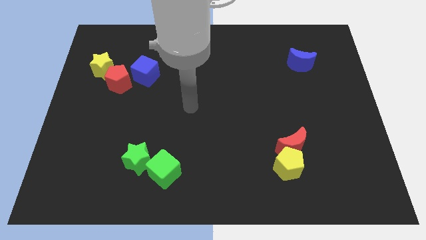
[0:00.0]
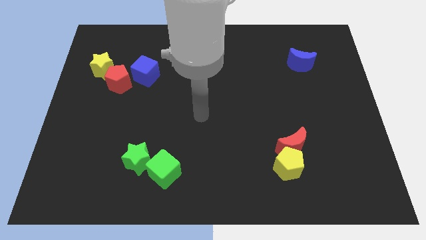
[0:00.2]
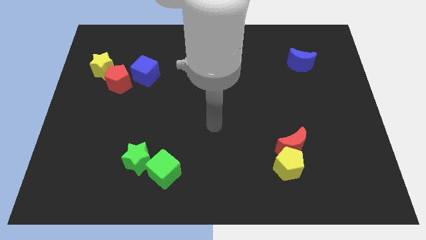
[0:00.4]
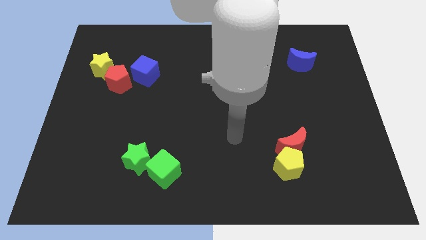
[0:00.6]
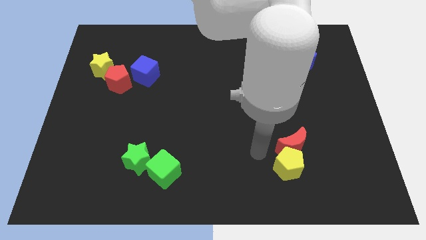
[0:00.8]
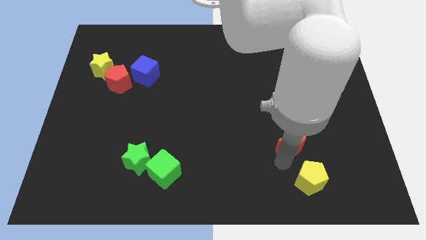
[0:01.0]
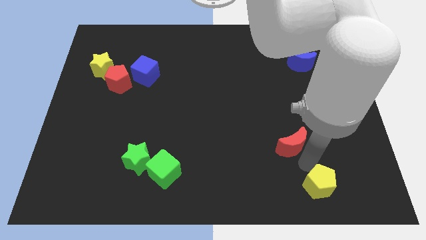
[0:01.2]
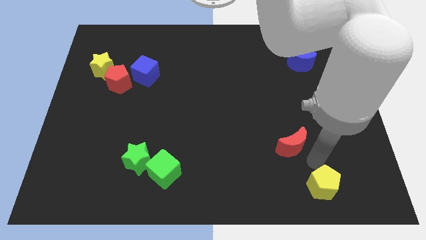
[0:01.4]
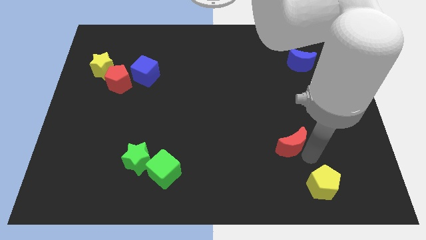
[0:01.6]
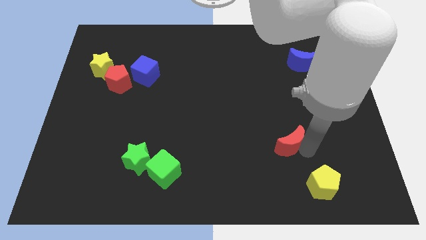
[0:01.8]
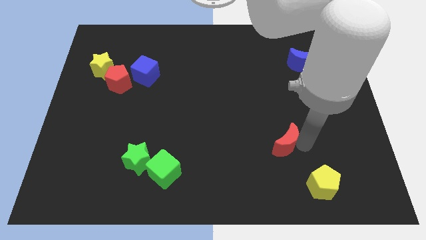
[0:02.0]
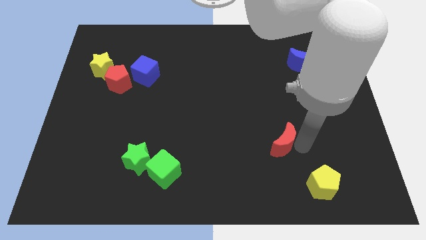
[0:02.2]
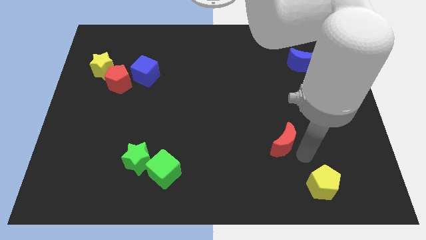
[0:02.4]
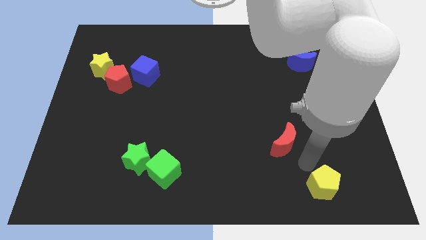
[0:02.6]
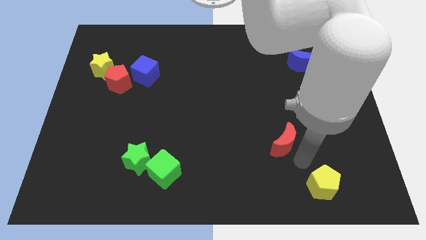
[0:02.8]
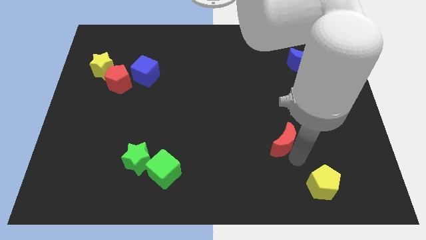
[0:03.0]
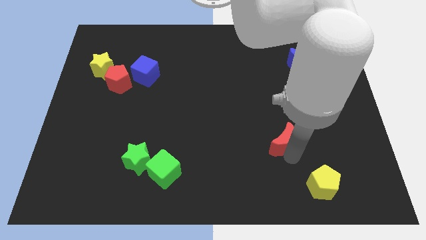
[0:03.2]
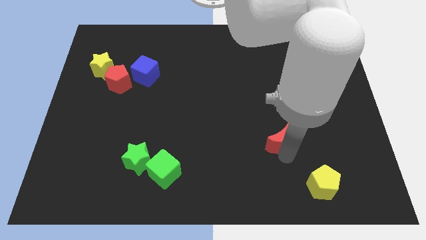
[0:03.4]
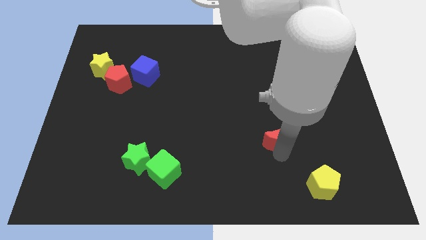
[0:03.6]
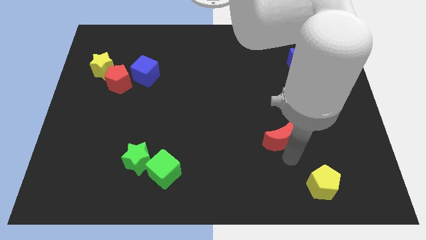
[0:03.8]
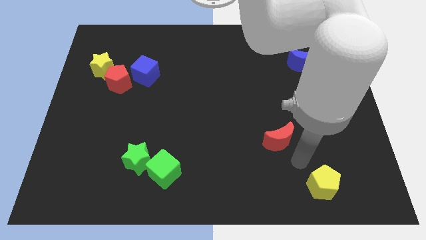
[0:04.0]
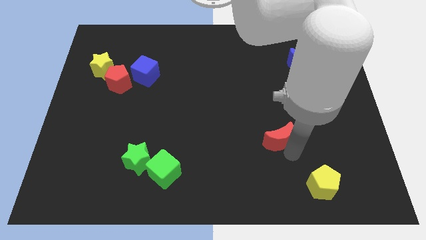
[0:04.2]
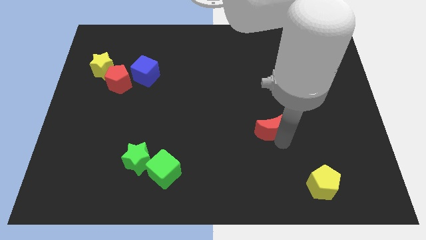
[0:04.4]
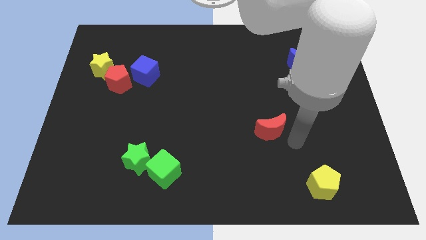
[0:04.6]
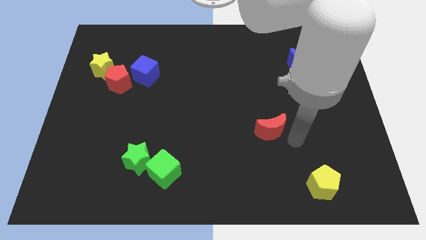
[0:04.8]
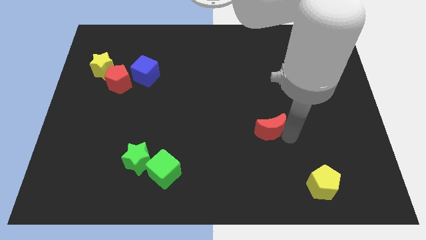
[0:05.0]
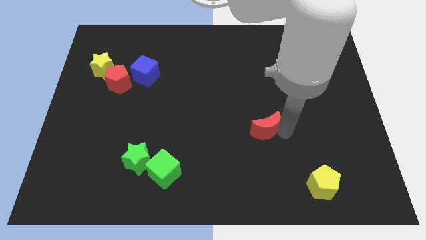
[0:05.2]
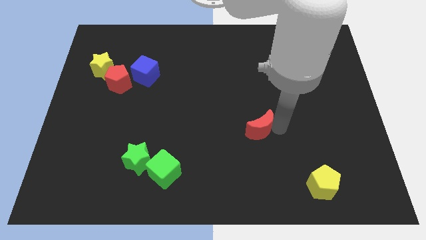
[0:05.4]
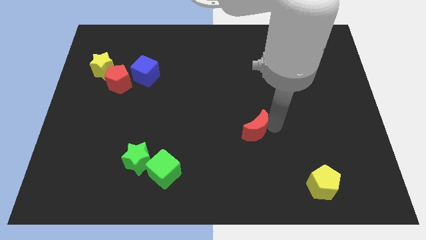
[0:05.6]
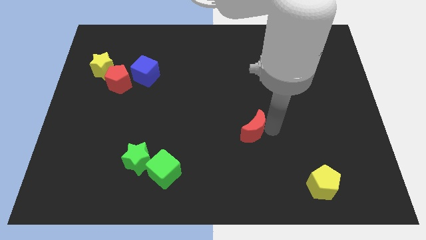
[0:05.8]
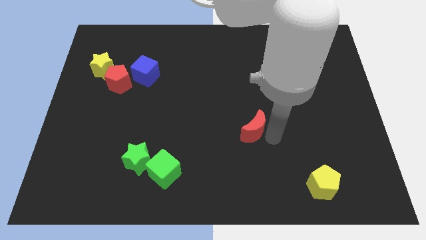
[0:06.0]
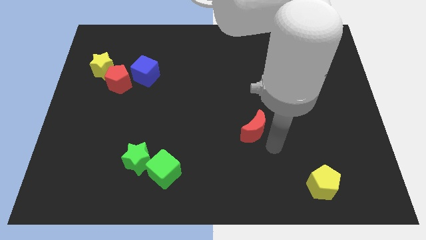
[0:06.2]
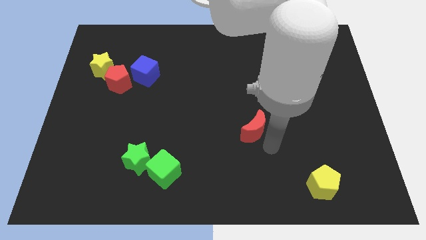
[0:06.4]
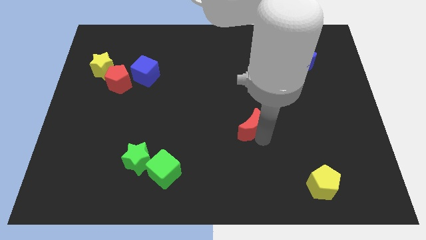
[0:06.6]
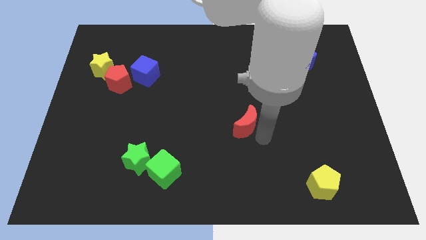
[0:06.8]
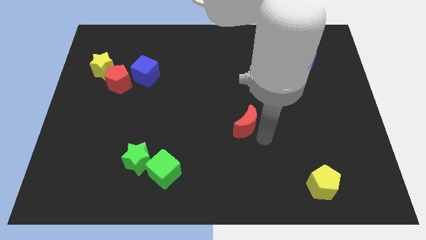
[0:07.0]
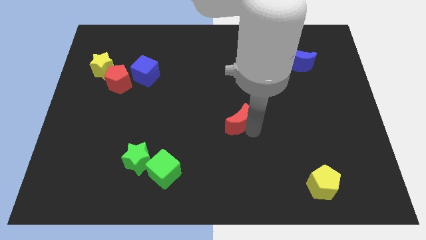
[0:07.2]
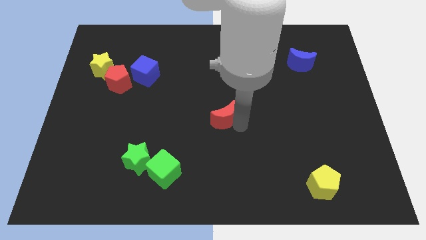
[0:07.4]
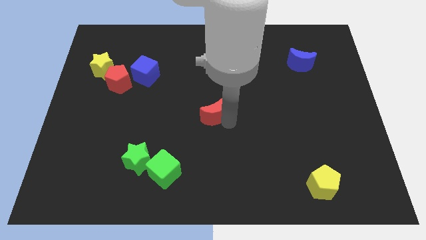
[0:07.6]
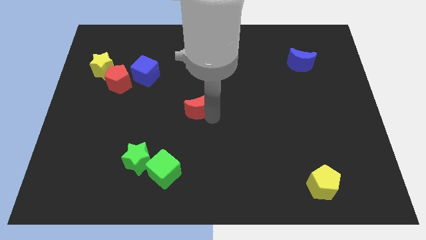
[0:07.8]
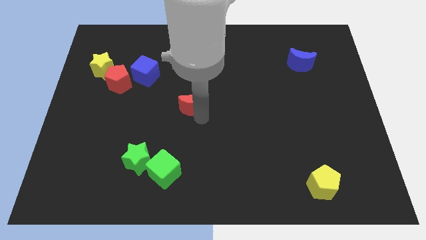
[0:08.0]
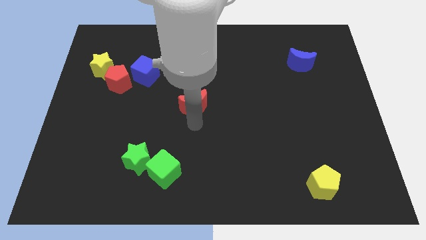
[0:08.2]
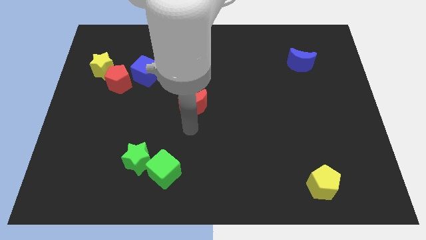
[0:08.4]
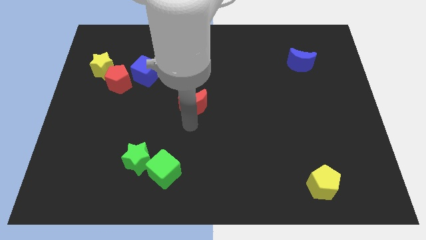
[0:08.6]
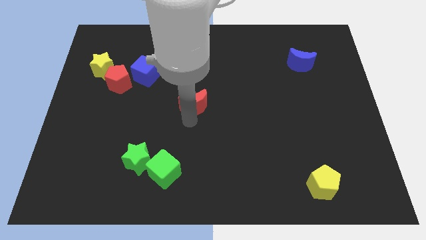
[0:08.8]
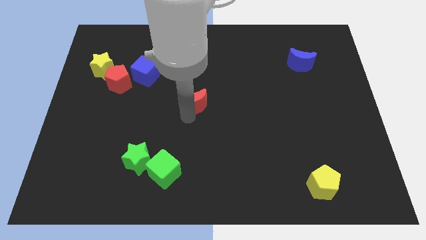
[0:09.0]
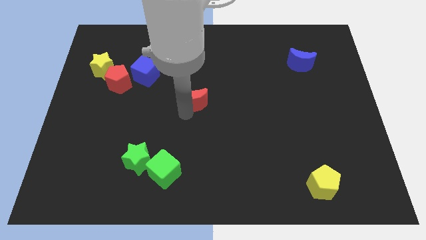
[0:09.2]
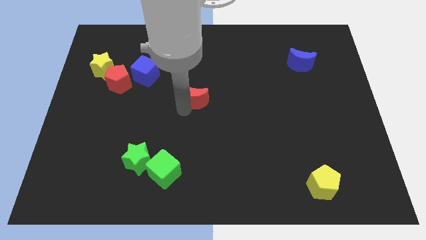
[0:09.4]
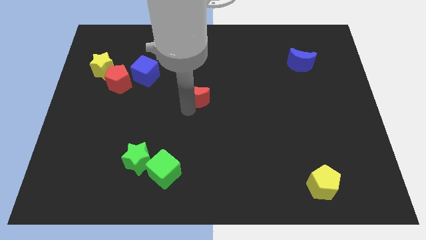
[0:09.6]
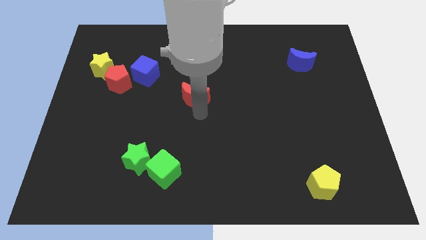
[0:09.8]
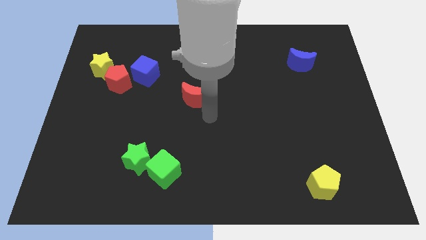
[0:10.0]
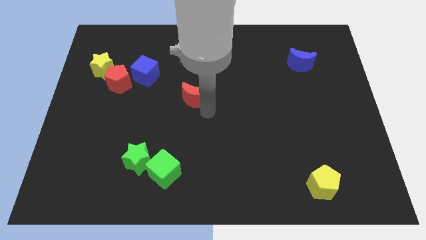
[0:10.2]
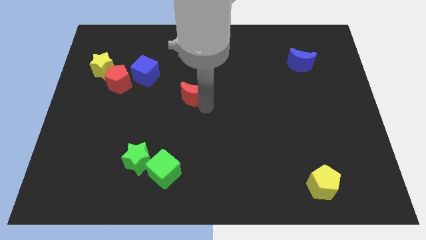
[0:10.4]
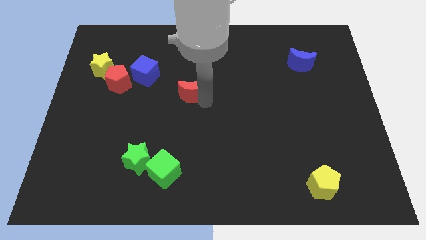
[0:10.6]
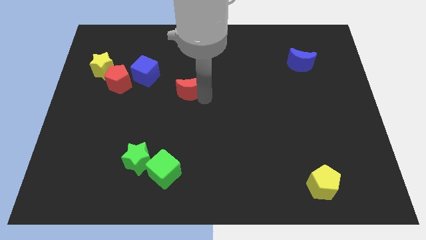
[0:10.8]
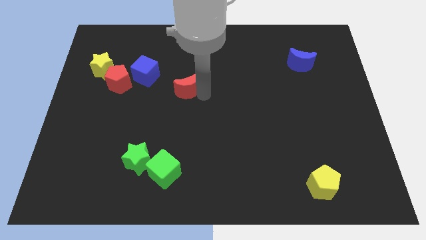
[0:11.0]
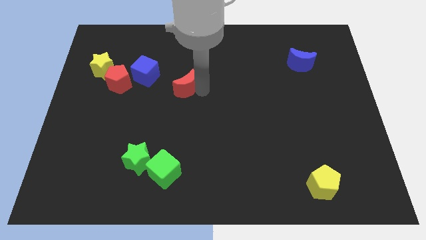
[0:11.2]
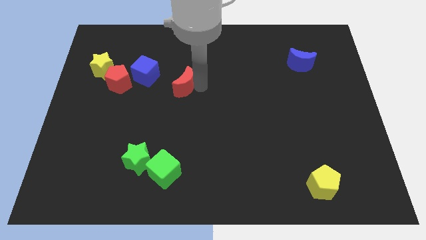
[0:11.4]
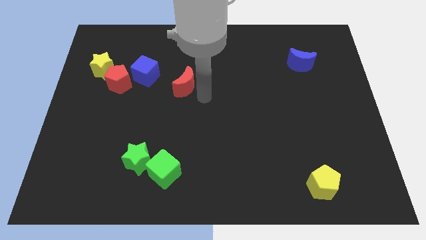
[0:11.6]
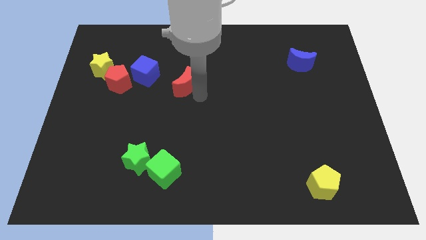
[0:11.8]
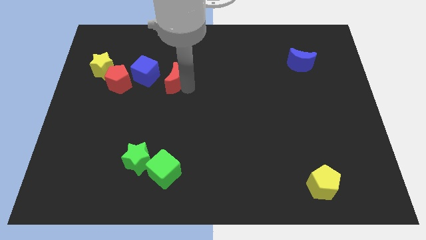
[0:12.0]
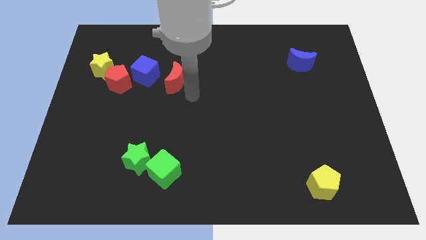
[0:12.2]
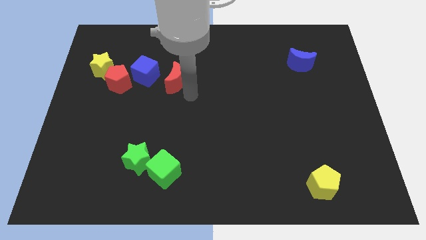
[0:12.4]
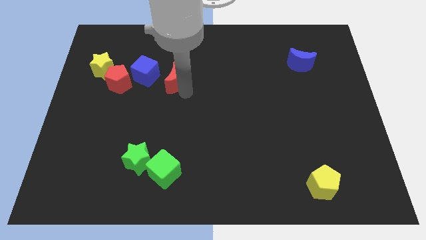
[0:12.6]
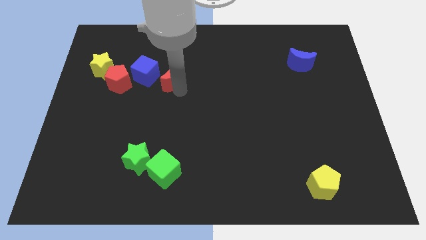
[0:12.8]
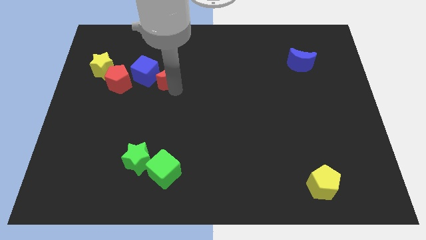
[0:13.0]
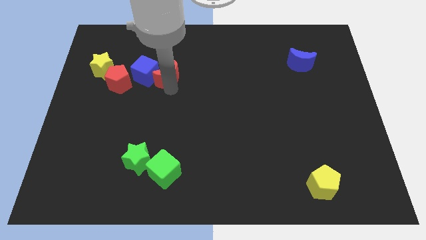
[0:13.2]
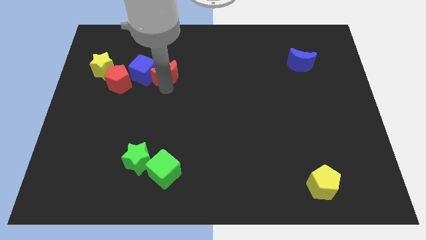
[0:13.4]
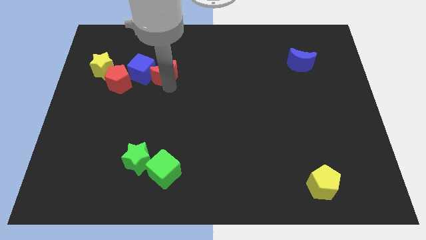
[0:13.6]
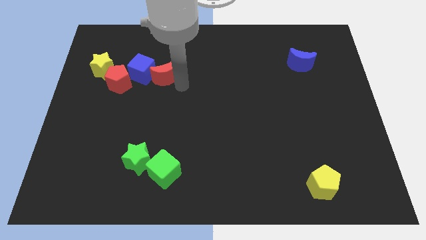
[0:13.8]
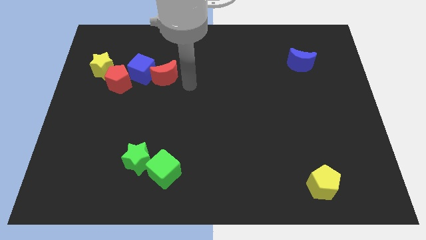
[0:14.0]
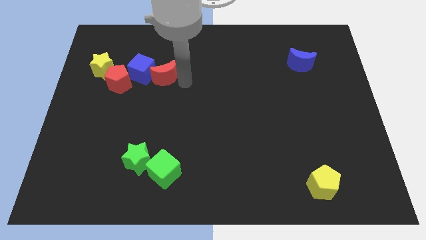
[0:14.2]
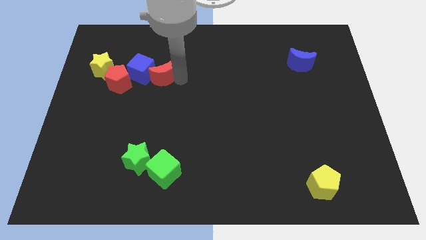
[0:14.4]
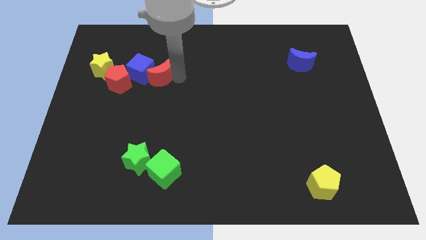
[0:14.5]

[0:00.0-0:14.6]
slide the red moon to the right of the yellow star
